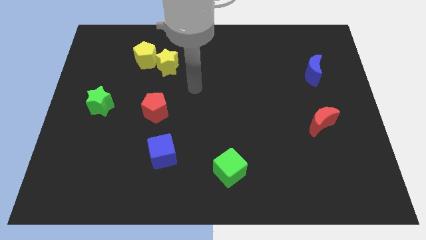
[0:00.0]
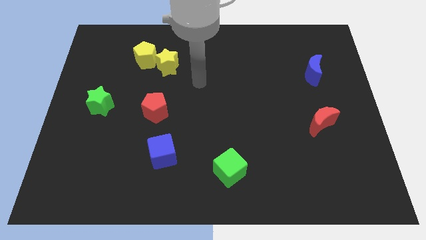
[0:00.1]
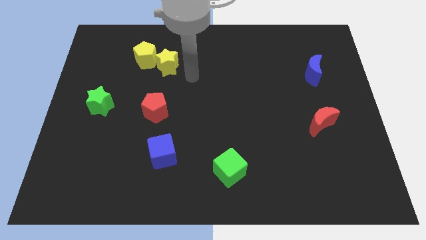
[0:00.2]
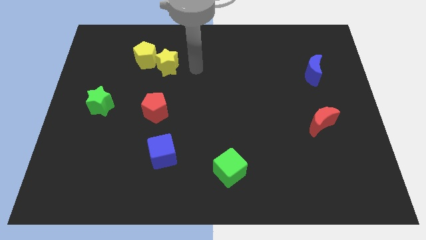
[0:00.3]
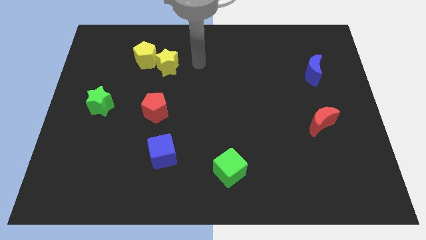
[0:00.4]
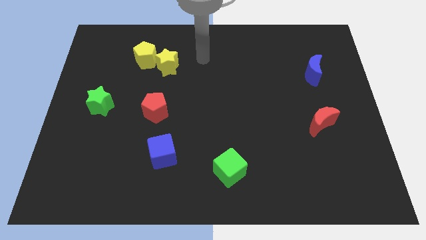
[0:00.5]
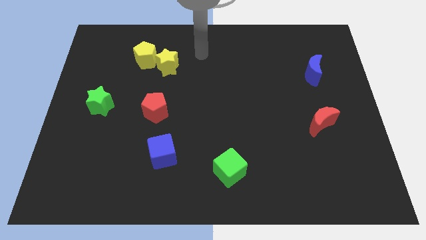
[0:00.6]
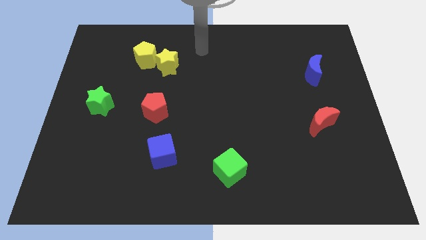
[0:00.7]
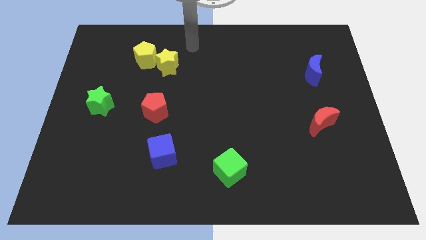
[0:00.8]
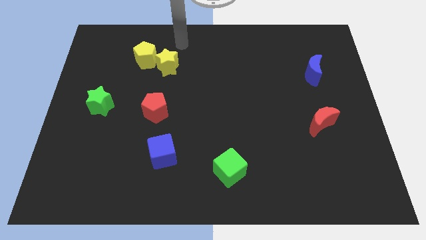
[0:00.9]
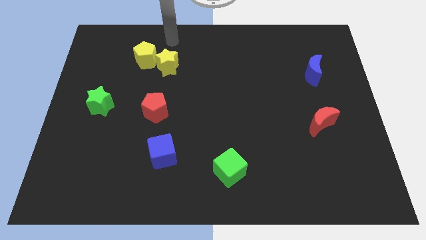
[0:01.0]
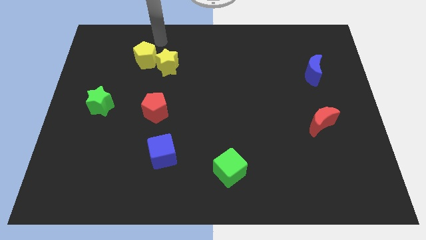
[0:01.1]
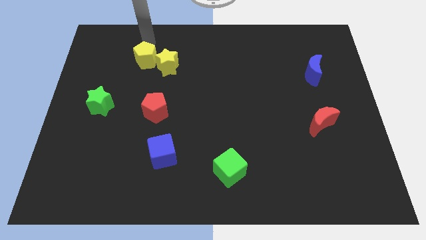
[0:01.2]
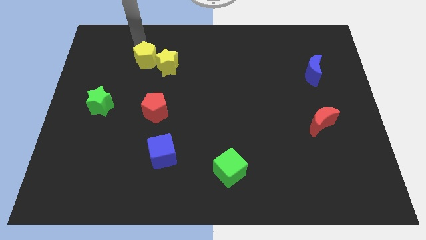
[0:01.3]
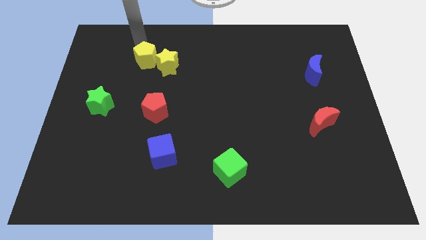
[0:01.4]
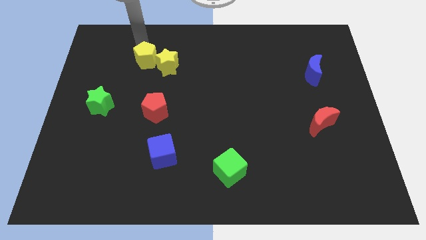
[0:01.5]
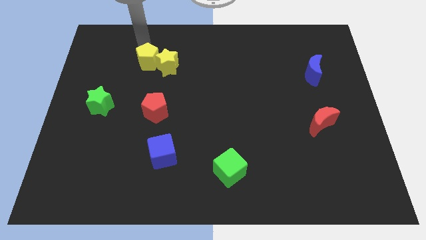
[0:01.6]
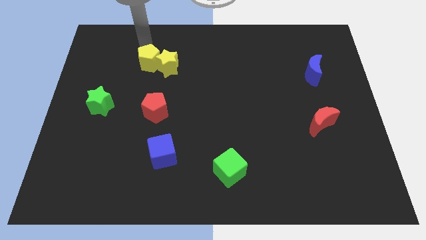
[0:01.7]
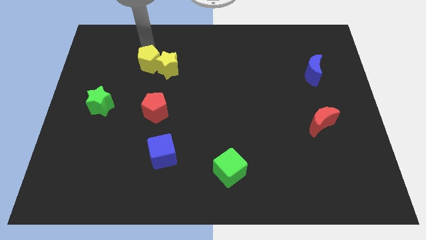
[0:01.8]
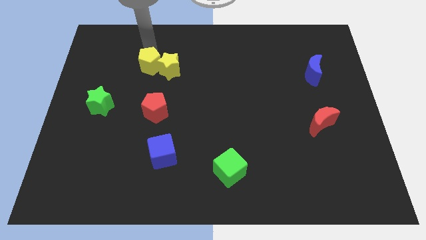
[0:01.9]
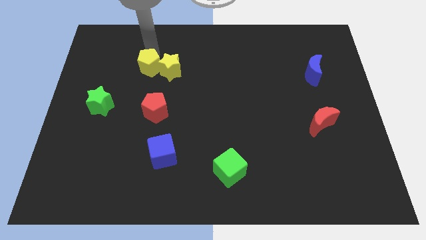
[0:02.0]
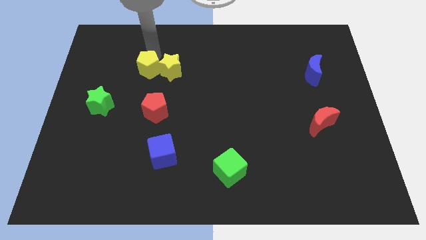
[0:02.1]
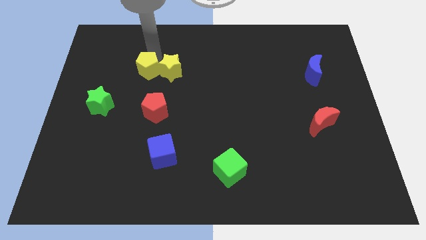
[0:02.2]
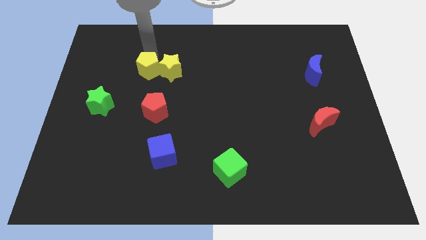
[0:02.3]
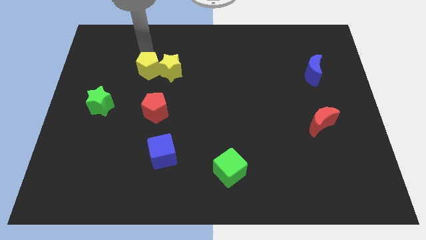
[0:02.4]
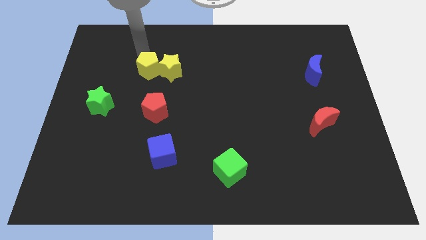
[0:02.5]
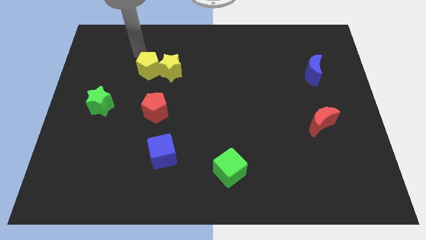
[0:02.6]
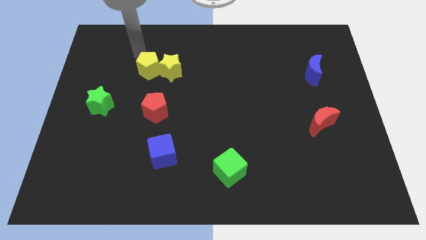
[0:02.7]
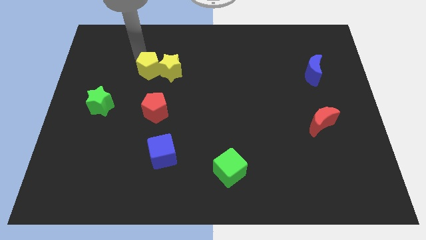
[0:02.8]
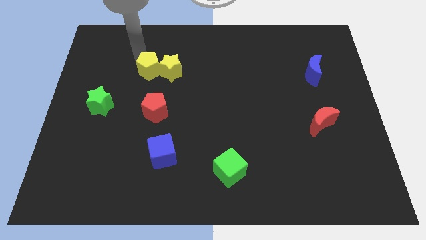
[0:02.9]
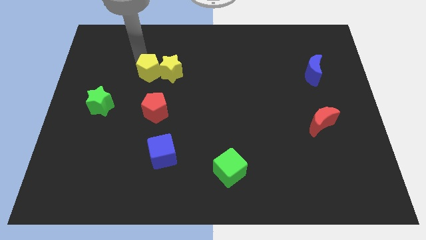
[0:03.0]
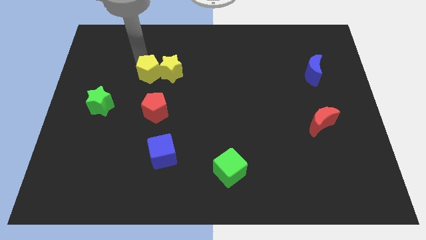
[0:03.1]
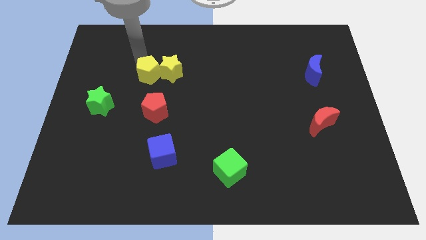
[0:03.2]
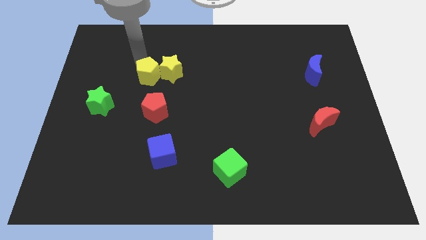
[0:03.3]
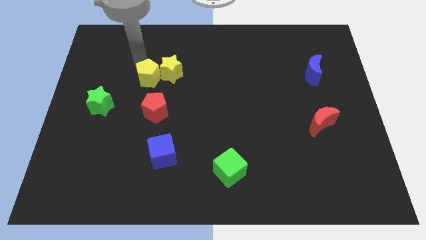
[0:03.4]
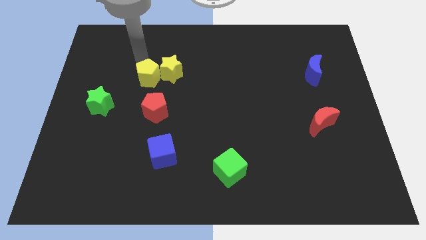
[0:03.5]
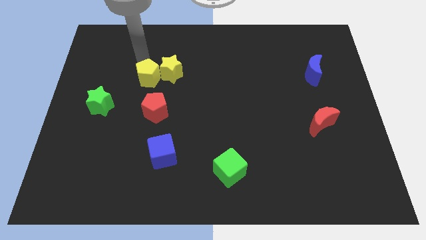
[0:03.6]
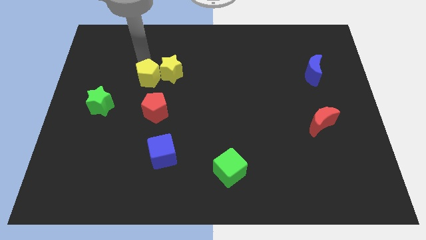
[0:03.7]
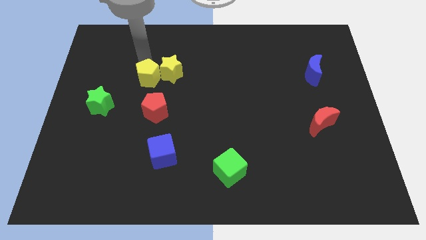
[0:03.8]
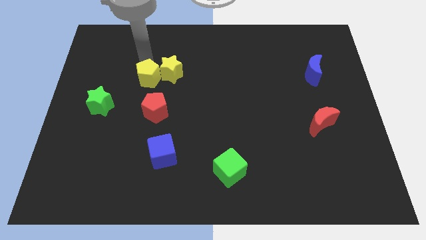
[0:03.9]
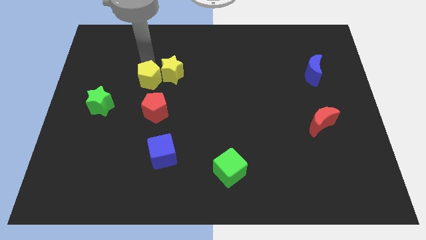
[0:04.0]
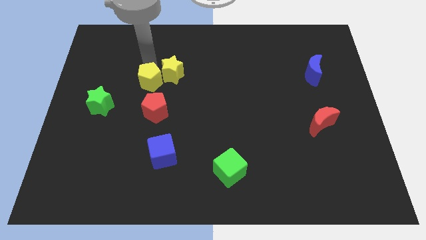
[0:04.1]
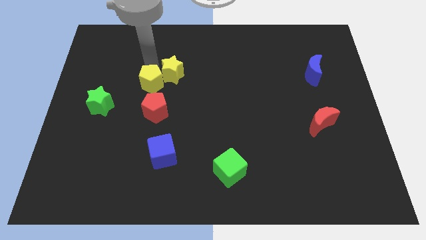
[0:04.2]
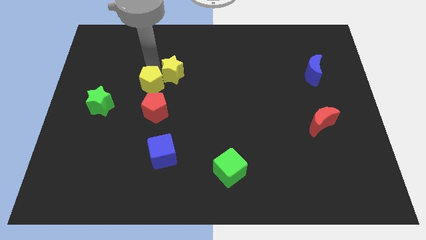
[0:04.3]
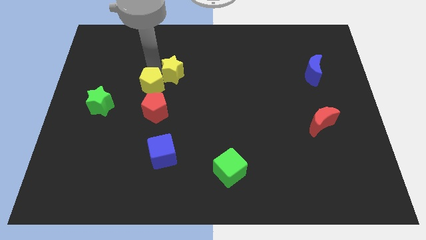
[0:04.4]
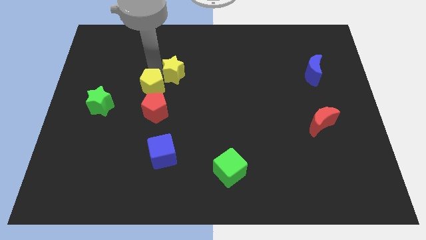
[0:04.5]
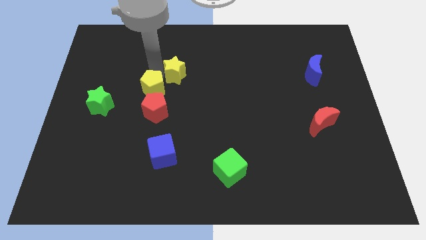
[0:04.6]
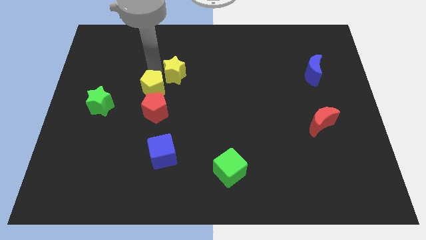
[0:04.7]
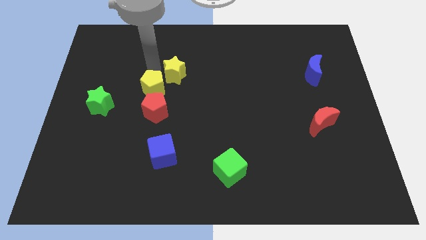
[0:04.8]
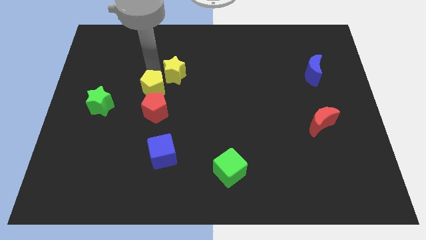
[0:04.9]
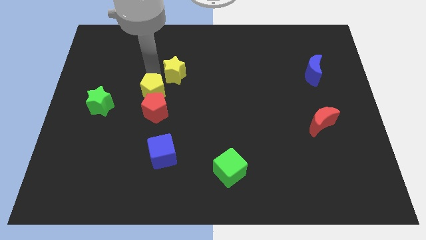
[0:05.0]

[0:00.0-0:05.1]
move the yellow pentagon next to the red pentagon

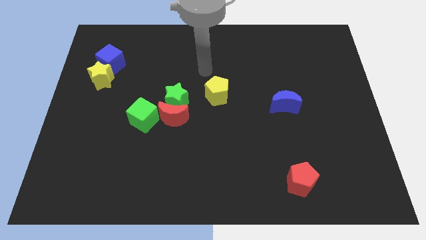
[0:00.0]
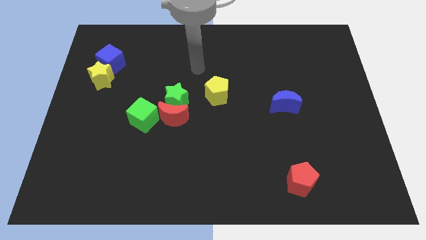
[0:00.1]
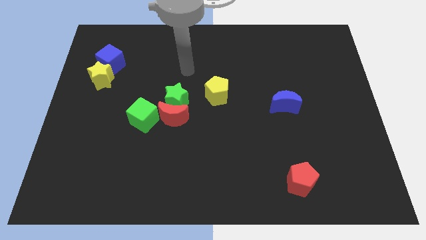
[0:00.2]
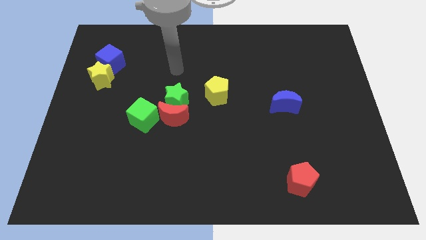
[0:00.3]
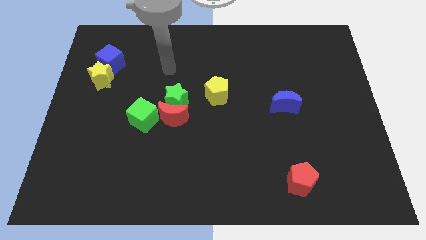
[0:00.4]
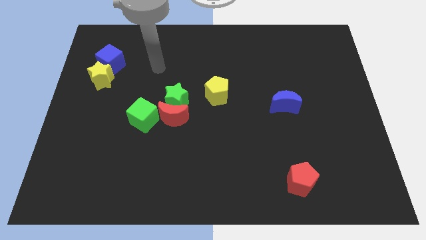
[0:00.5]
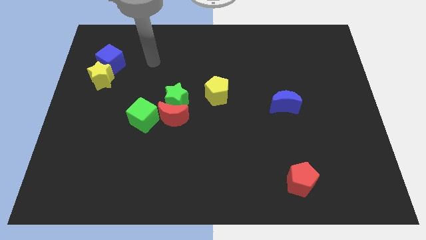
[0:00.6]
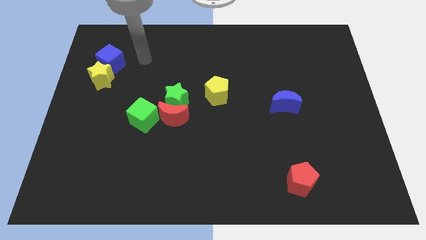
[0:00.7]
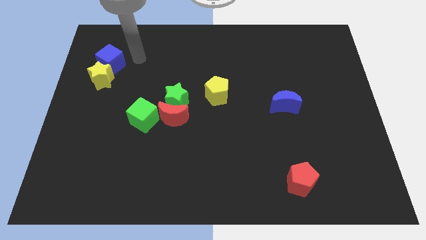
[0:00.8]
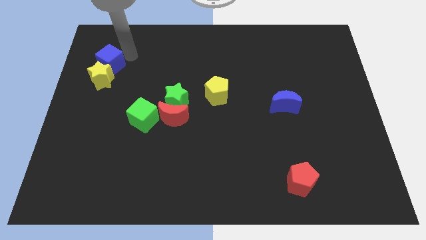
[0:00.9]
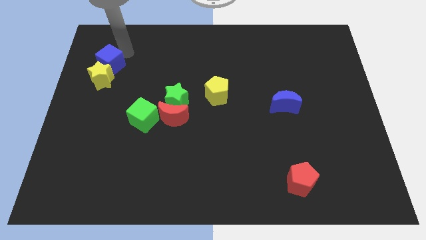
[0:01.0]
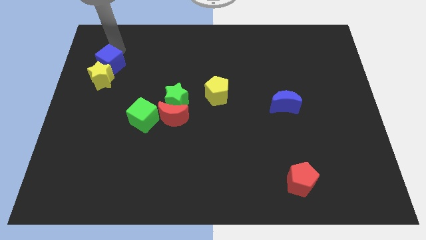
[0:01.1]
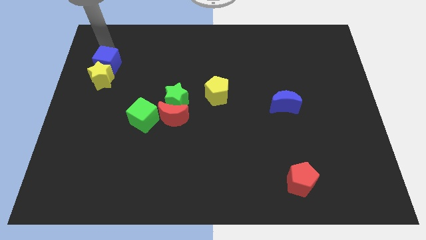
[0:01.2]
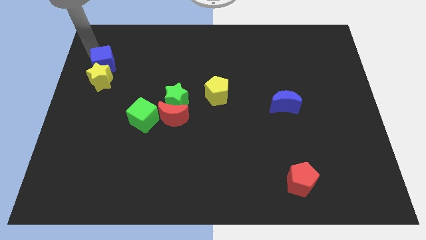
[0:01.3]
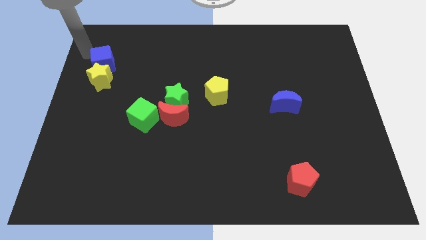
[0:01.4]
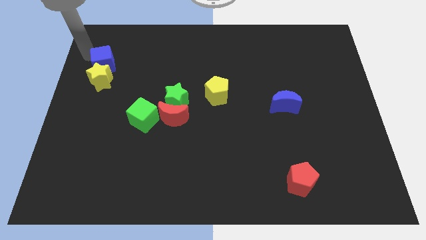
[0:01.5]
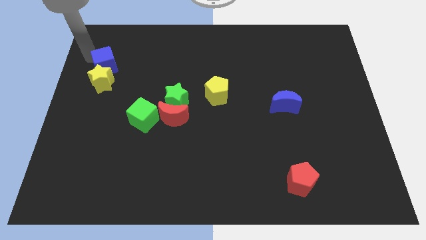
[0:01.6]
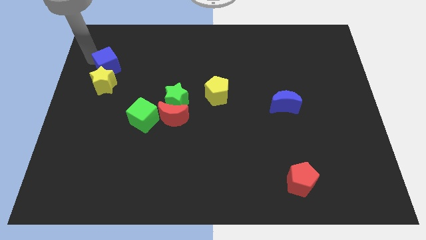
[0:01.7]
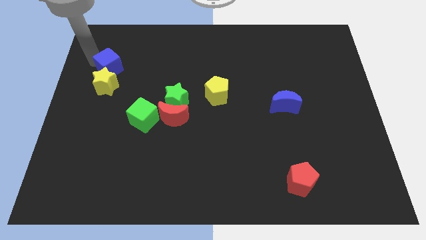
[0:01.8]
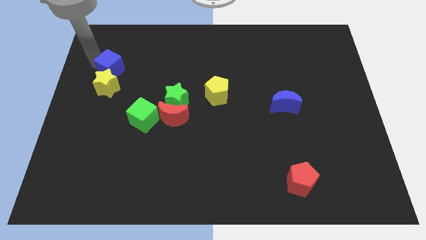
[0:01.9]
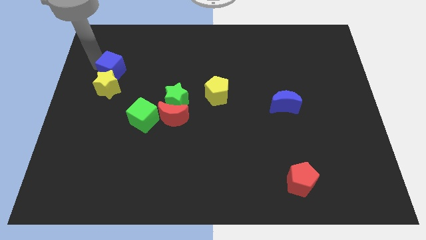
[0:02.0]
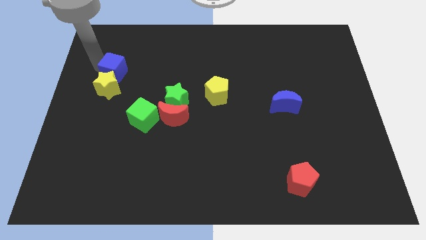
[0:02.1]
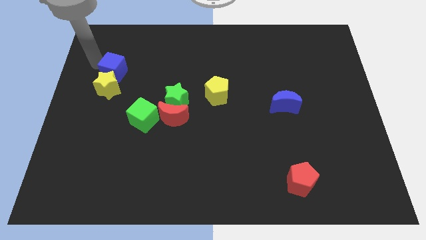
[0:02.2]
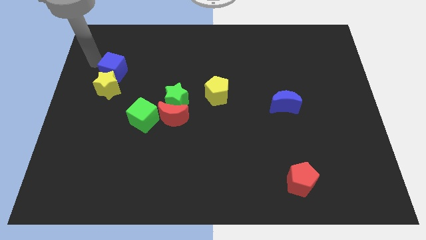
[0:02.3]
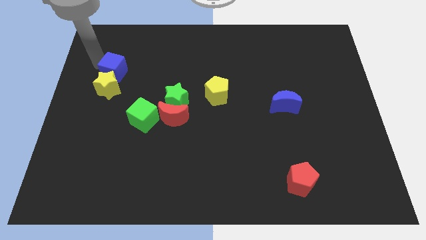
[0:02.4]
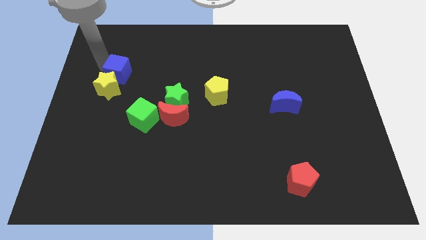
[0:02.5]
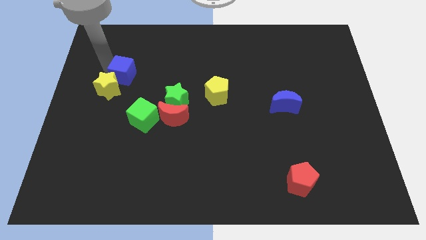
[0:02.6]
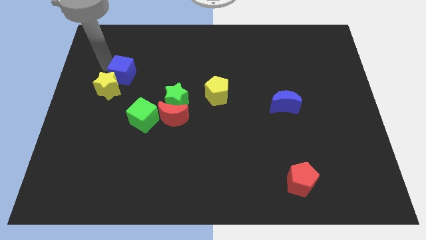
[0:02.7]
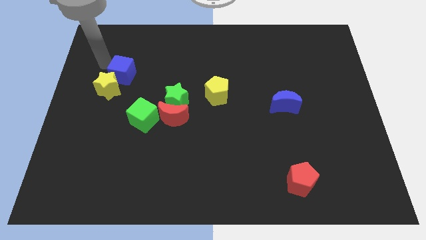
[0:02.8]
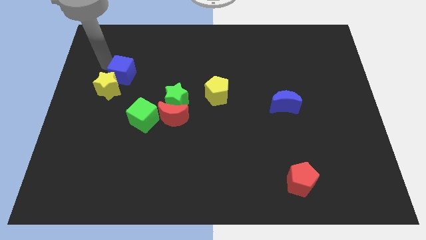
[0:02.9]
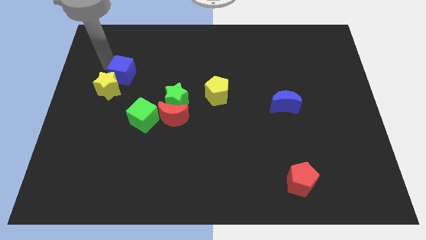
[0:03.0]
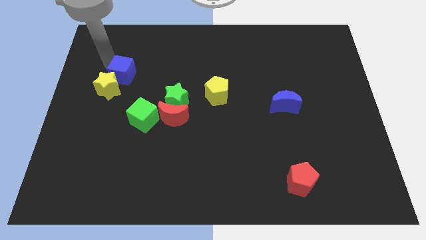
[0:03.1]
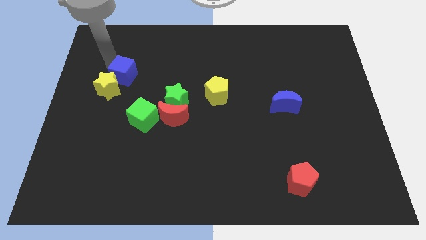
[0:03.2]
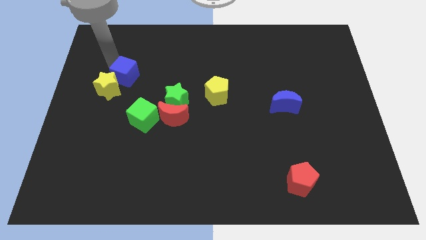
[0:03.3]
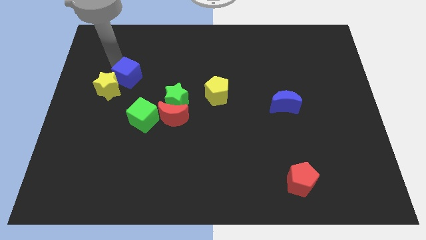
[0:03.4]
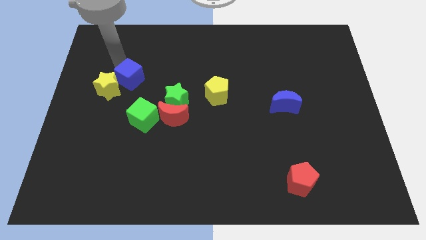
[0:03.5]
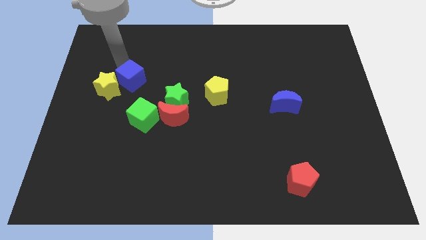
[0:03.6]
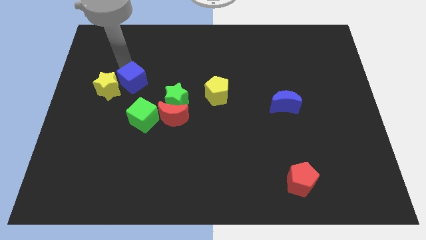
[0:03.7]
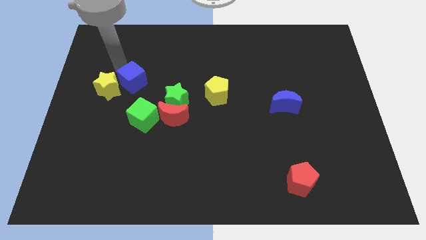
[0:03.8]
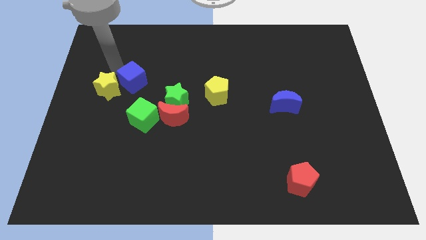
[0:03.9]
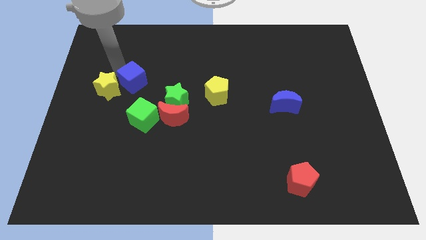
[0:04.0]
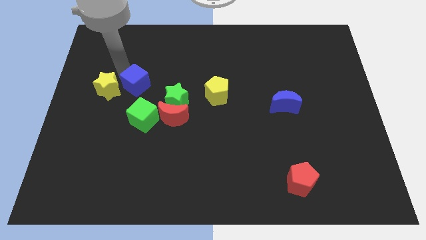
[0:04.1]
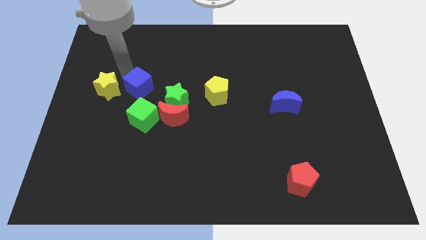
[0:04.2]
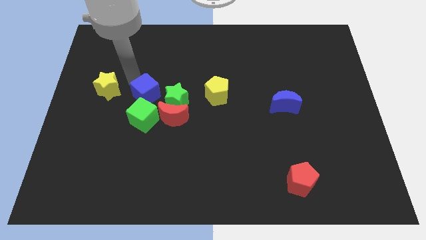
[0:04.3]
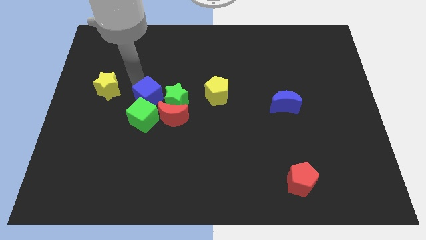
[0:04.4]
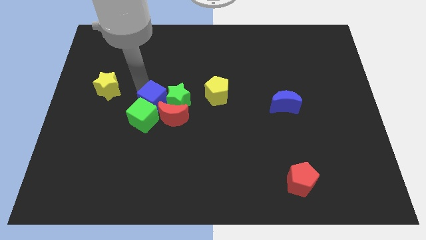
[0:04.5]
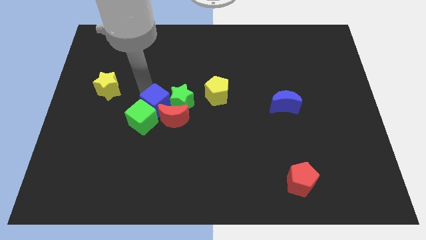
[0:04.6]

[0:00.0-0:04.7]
slide the blue cube to the red moon
